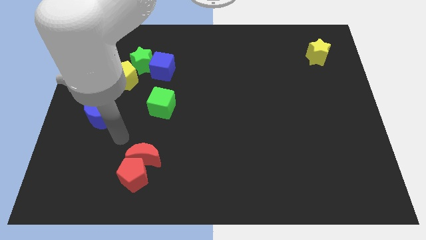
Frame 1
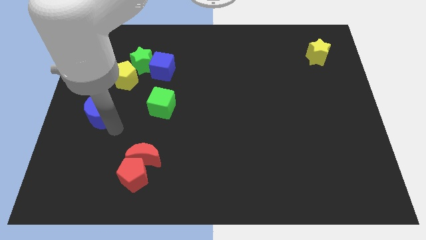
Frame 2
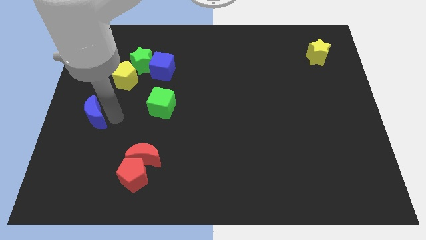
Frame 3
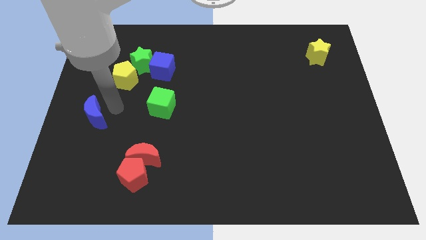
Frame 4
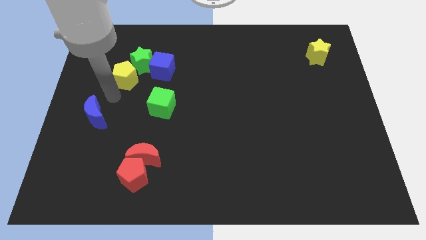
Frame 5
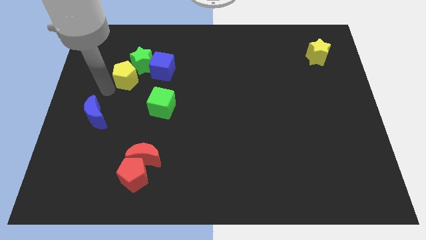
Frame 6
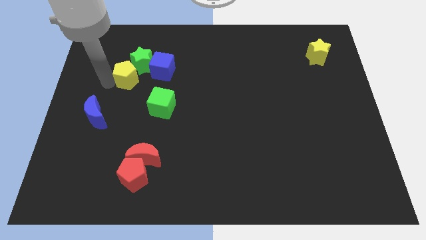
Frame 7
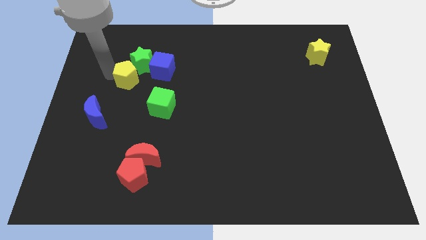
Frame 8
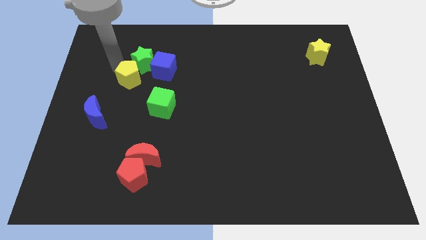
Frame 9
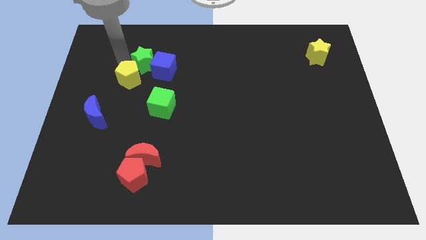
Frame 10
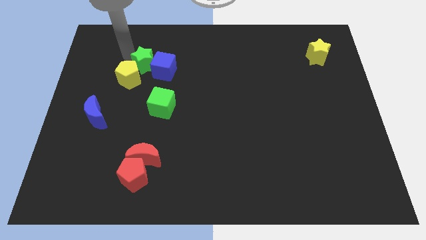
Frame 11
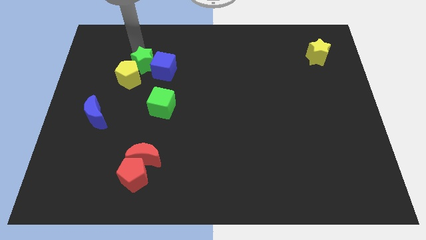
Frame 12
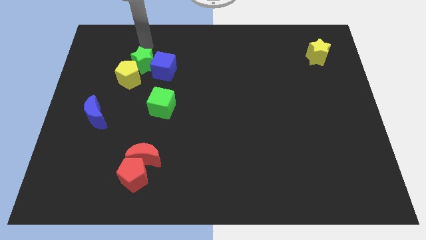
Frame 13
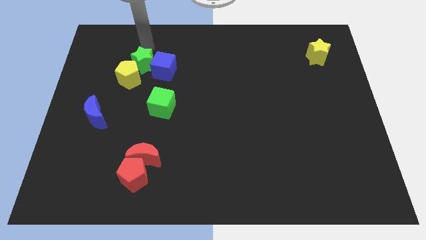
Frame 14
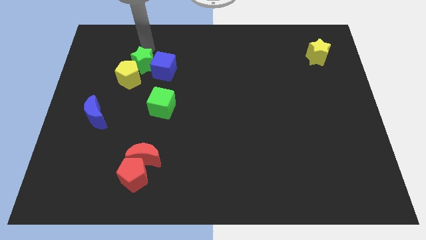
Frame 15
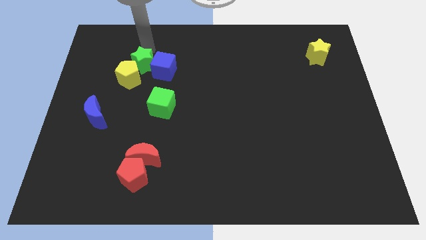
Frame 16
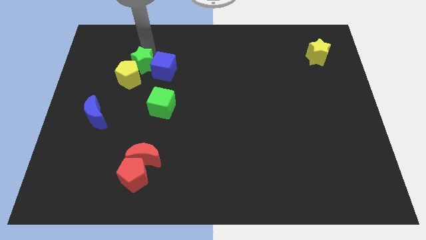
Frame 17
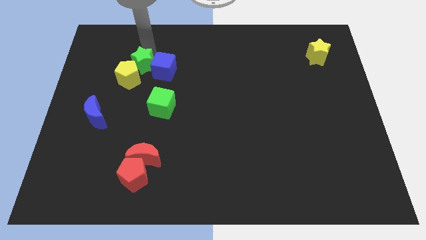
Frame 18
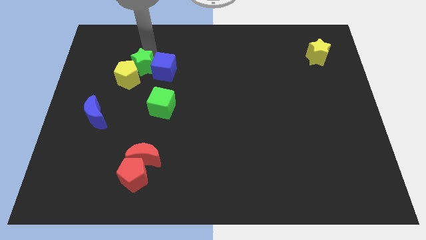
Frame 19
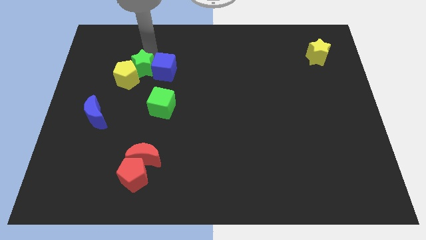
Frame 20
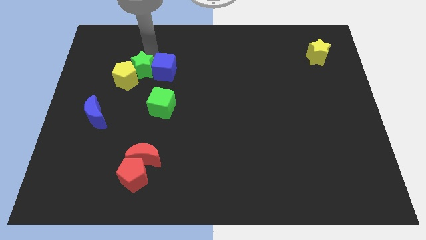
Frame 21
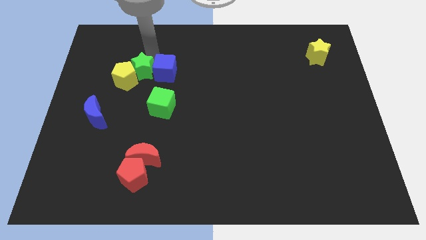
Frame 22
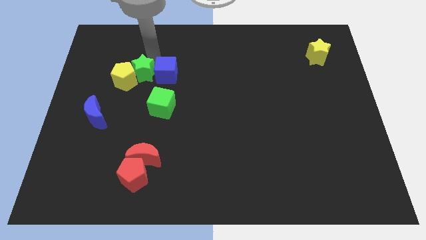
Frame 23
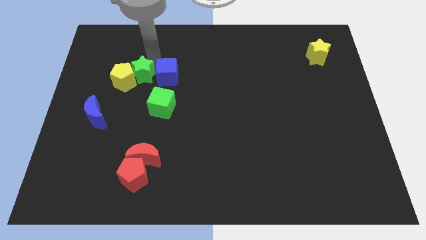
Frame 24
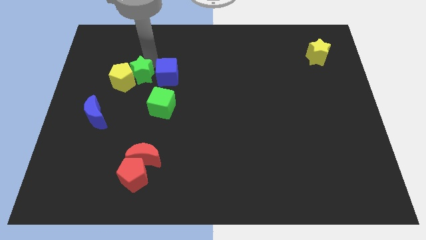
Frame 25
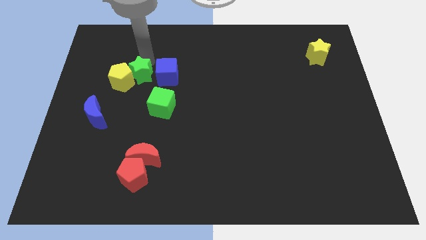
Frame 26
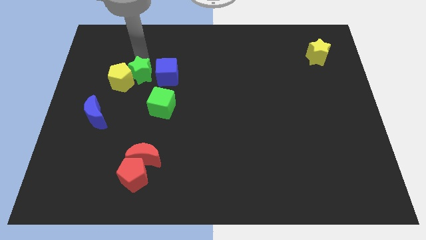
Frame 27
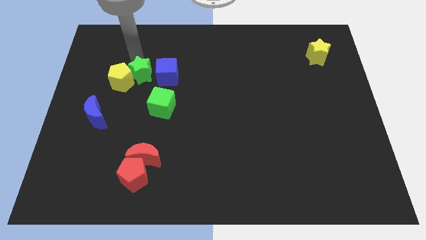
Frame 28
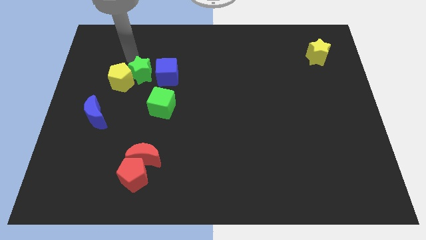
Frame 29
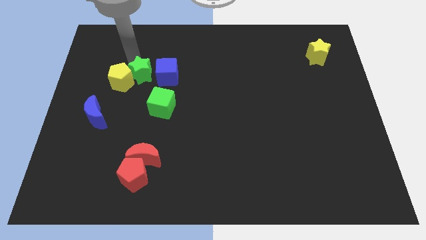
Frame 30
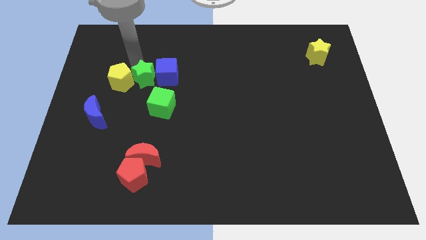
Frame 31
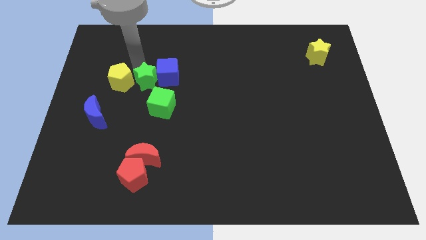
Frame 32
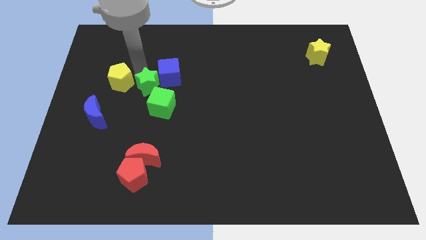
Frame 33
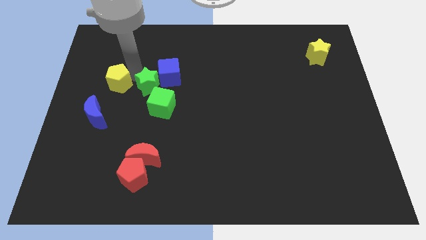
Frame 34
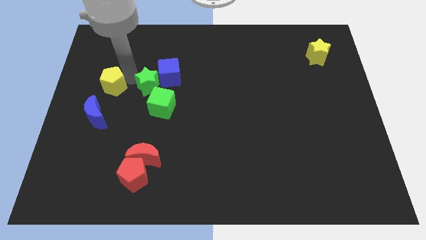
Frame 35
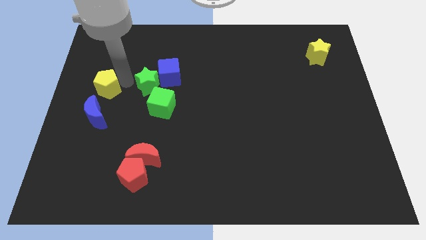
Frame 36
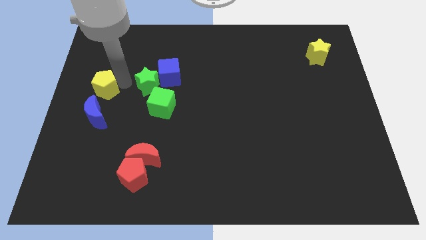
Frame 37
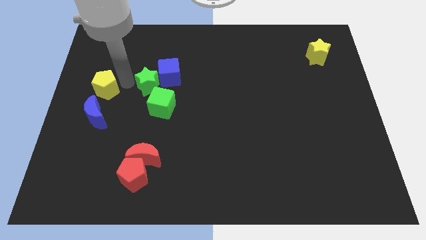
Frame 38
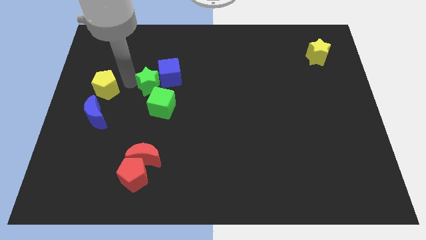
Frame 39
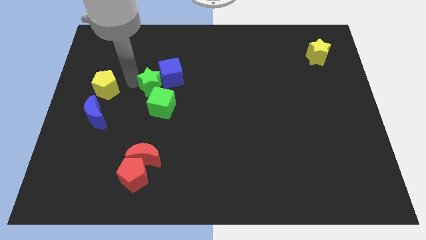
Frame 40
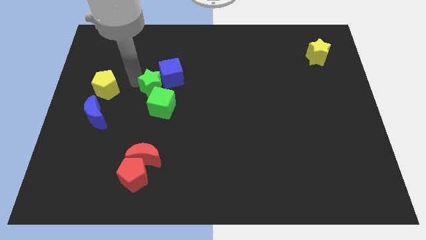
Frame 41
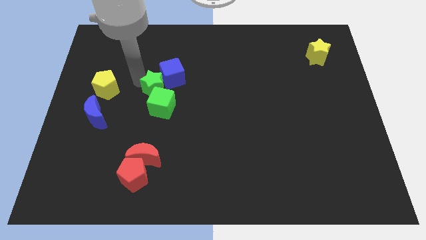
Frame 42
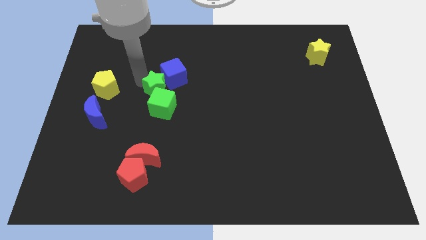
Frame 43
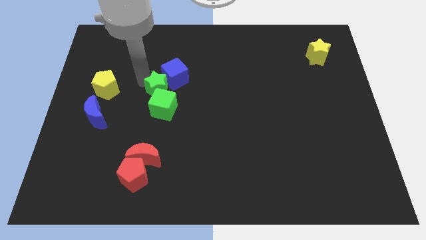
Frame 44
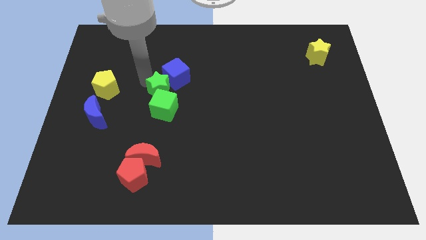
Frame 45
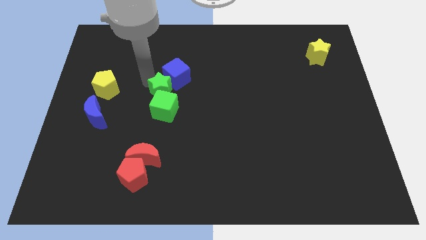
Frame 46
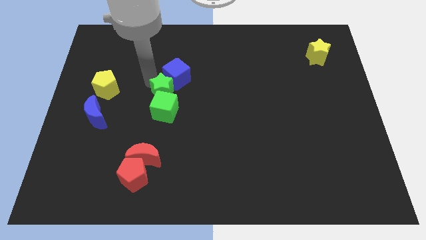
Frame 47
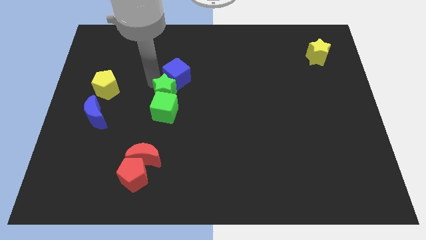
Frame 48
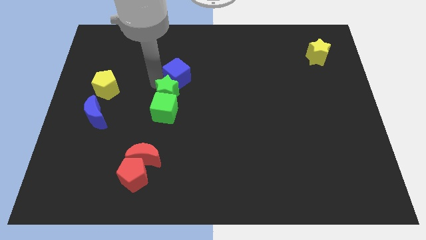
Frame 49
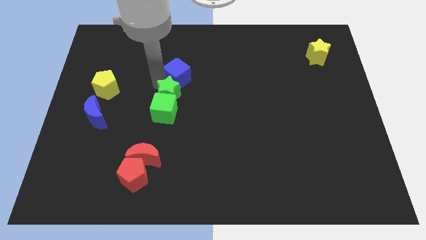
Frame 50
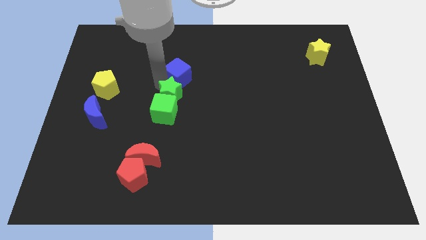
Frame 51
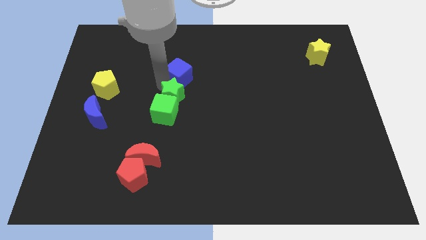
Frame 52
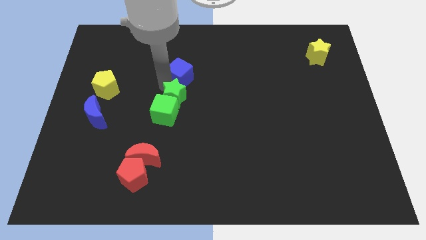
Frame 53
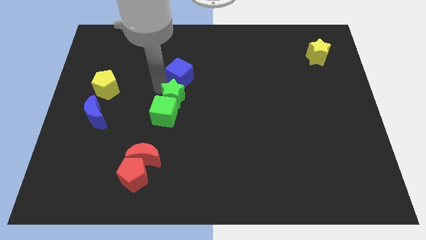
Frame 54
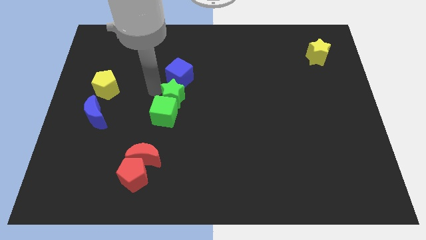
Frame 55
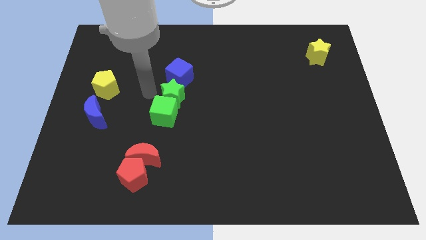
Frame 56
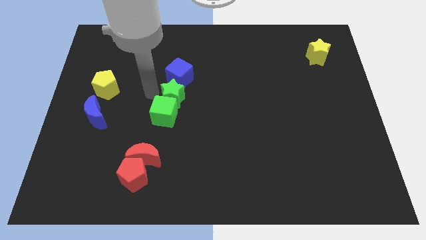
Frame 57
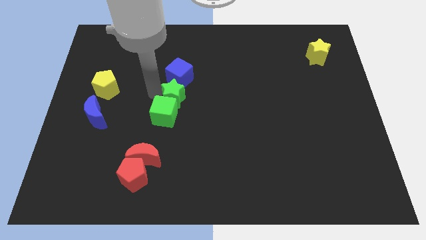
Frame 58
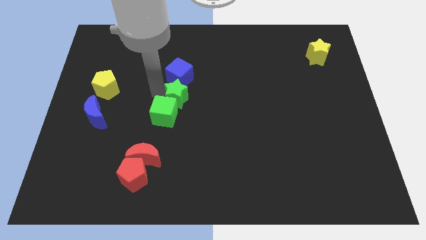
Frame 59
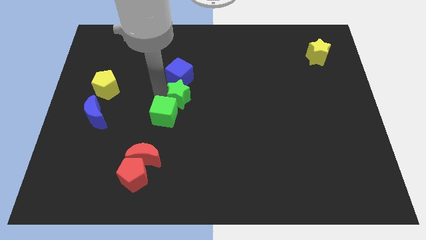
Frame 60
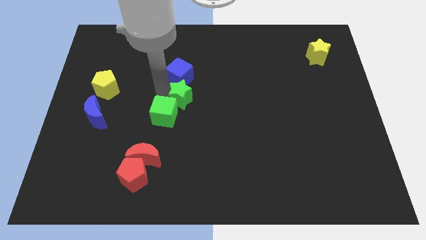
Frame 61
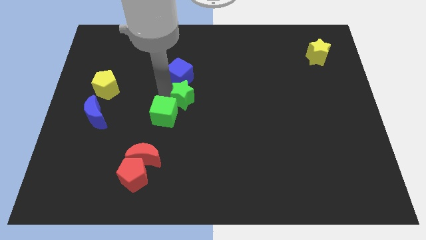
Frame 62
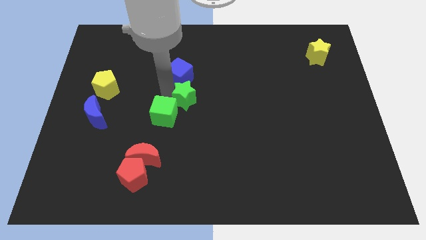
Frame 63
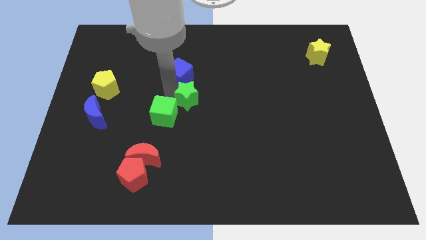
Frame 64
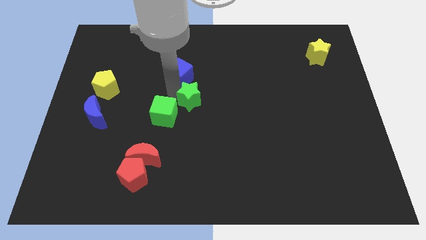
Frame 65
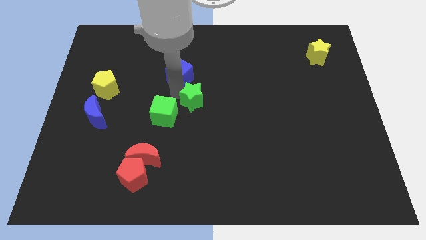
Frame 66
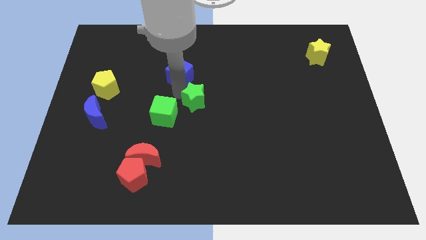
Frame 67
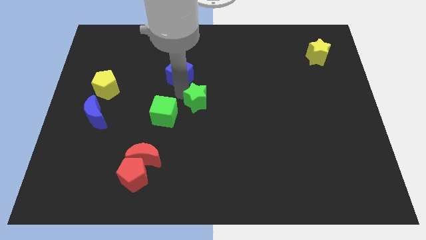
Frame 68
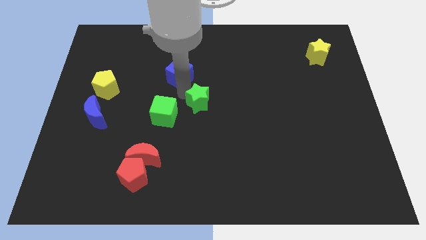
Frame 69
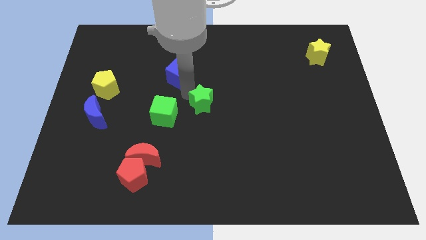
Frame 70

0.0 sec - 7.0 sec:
push the green star down and to the right diagonally

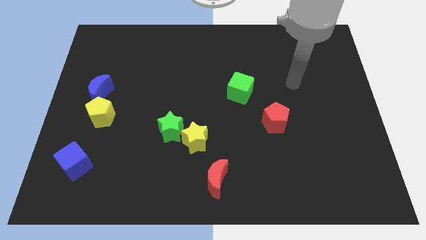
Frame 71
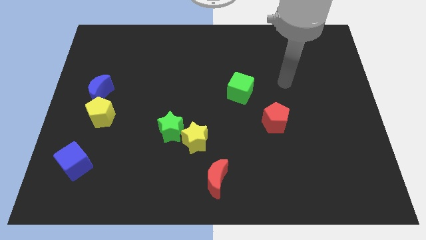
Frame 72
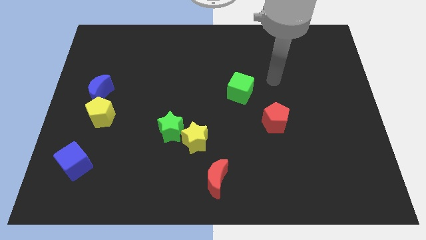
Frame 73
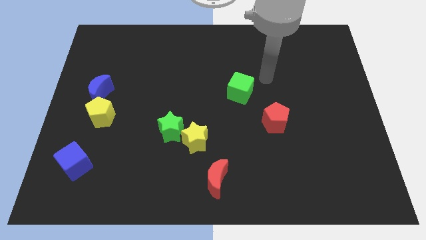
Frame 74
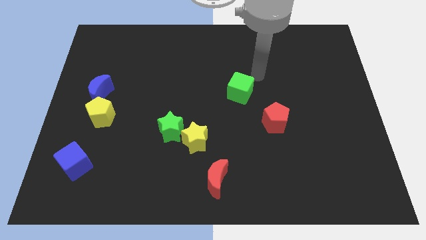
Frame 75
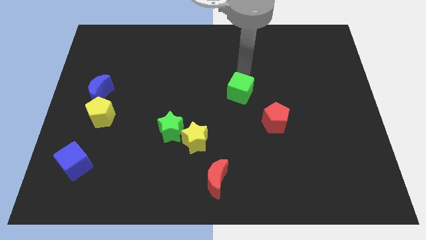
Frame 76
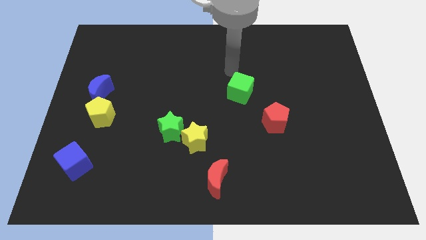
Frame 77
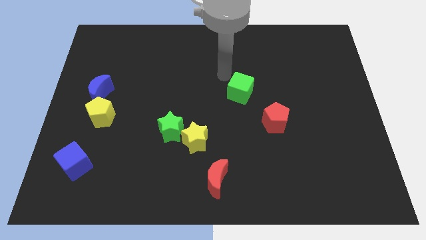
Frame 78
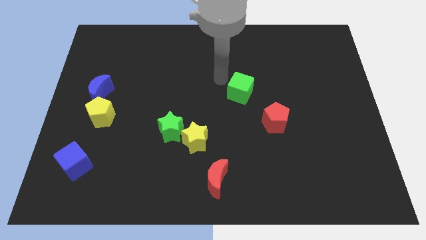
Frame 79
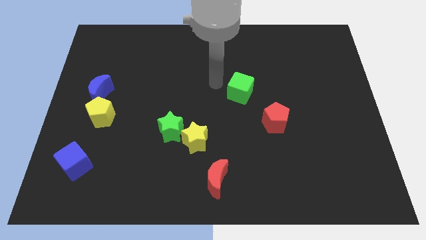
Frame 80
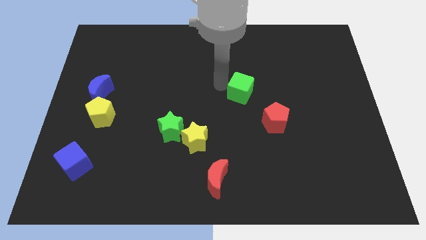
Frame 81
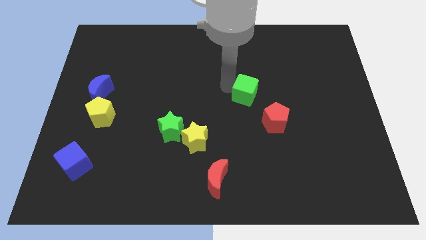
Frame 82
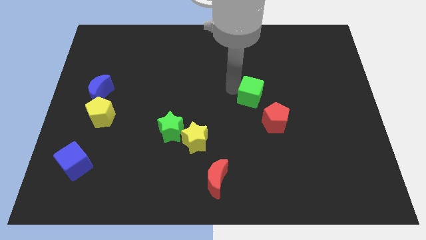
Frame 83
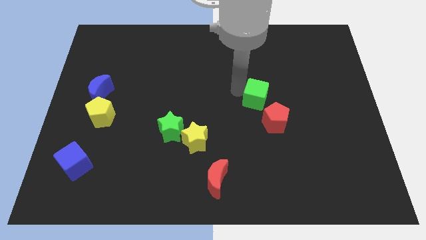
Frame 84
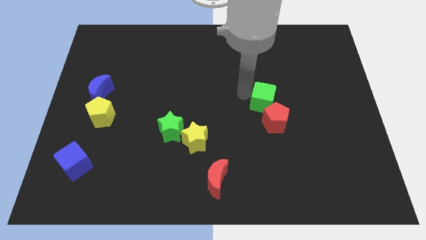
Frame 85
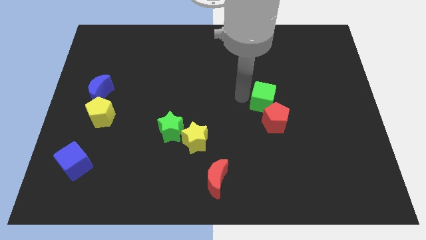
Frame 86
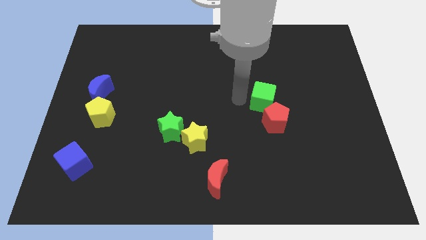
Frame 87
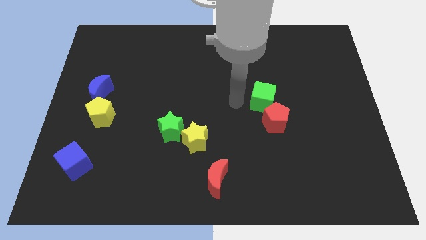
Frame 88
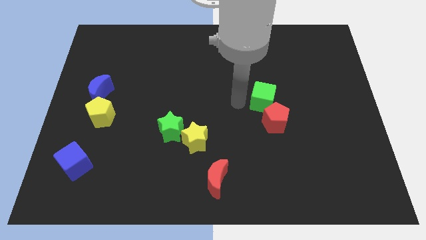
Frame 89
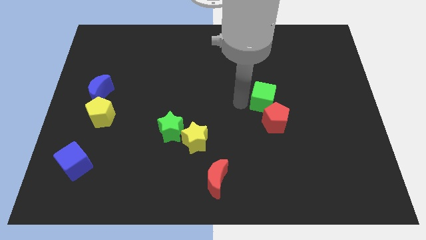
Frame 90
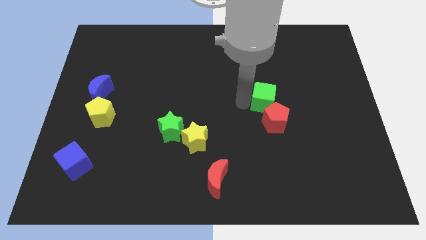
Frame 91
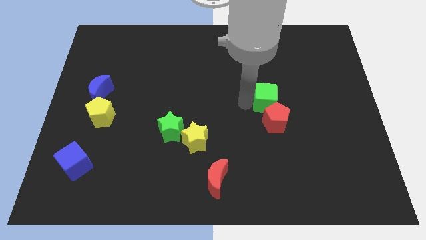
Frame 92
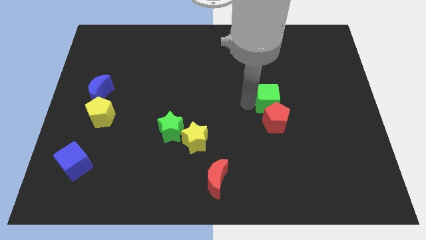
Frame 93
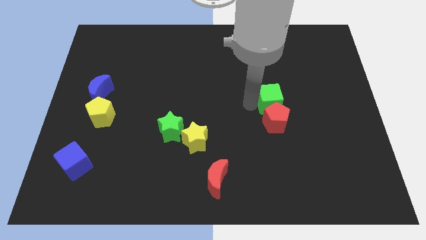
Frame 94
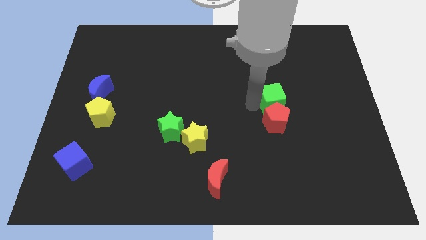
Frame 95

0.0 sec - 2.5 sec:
slightly push the green cube to the right
